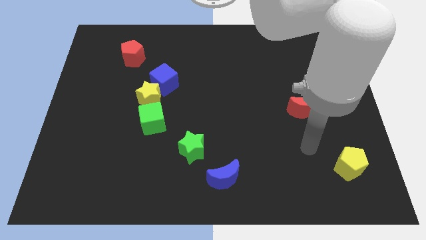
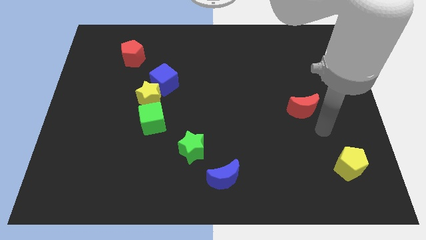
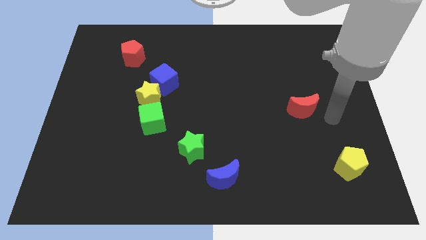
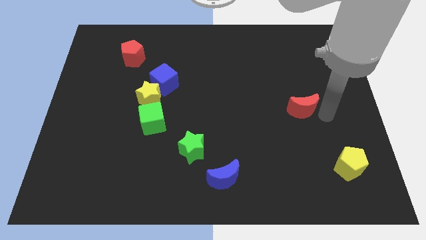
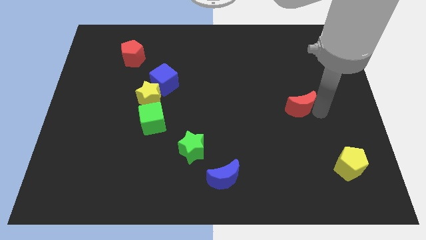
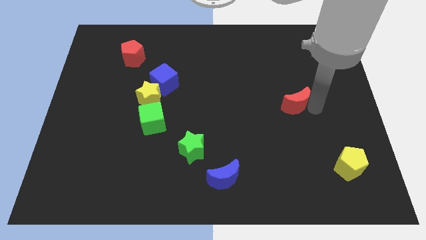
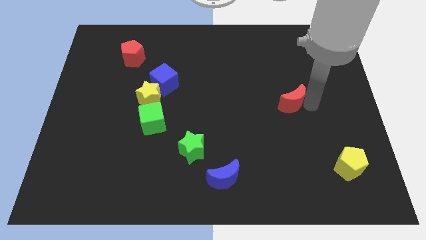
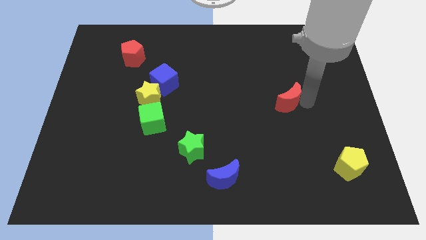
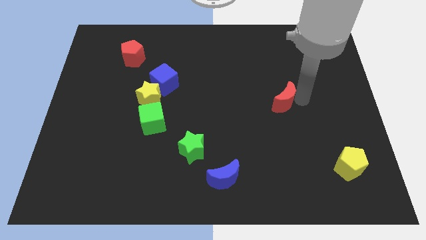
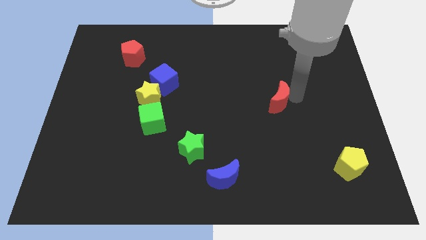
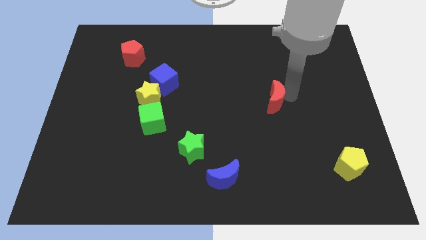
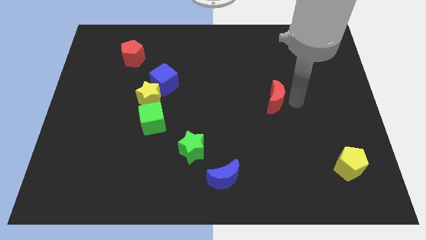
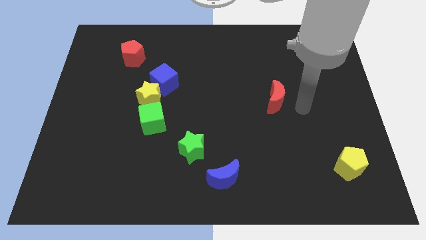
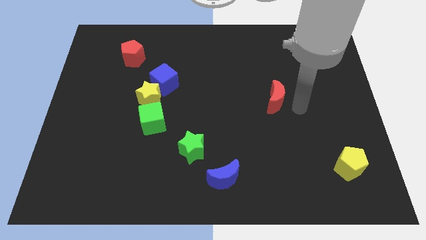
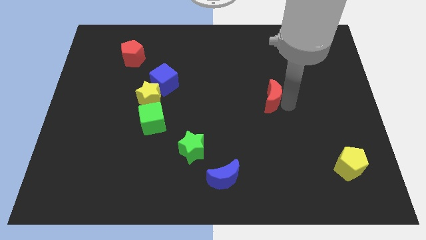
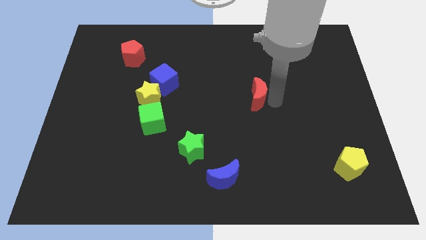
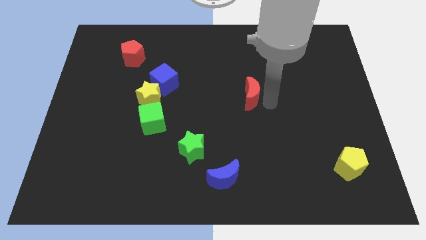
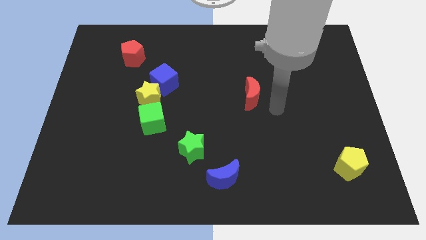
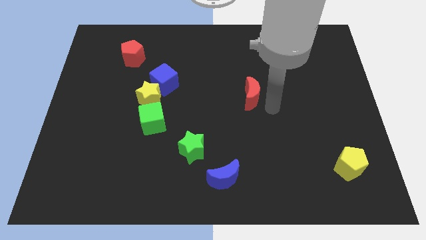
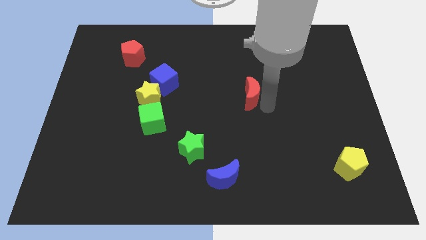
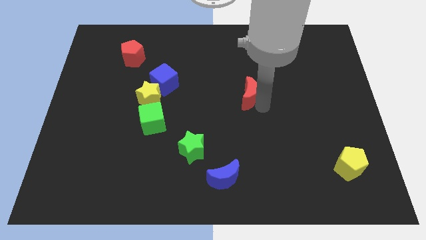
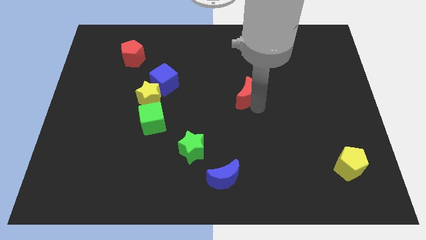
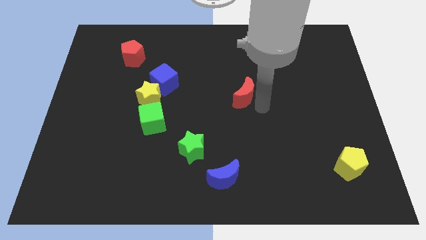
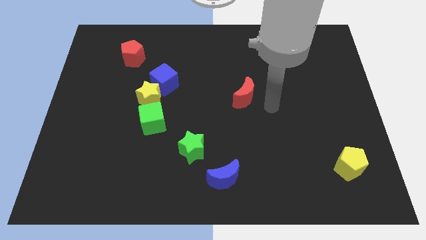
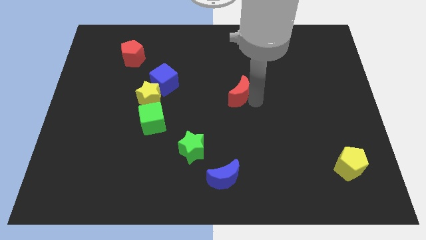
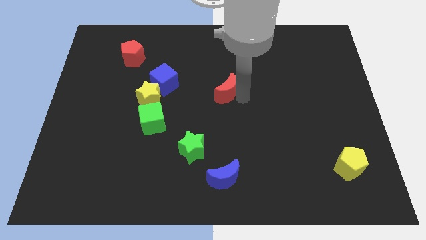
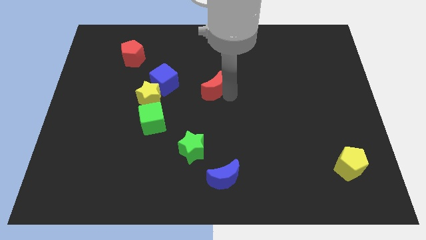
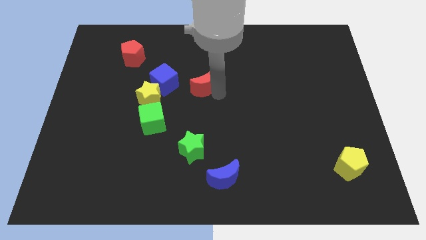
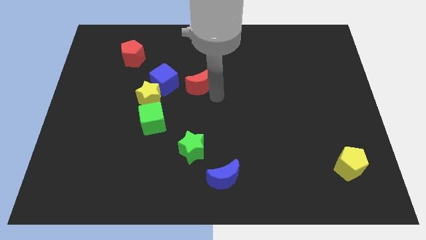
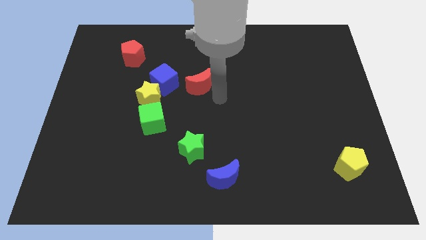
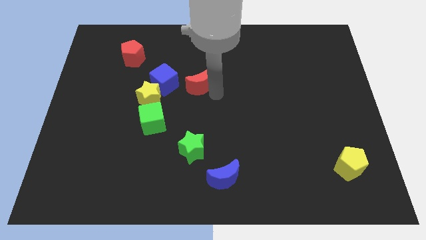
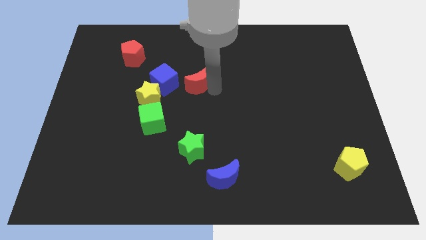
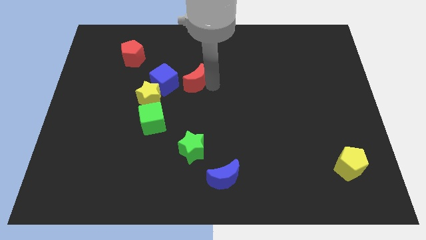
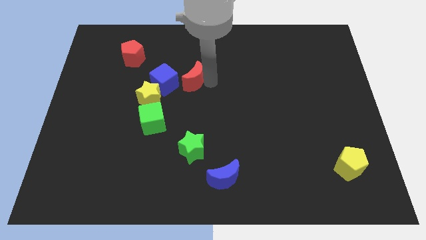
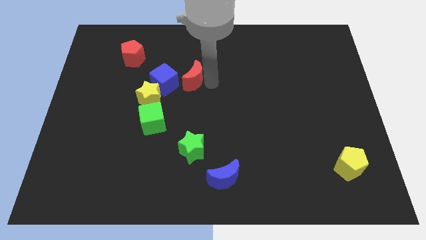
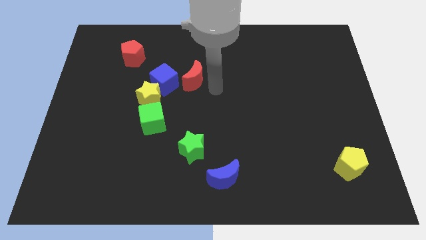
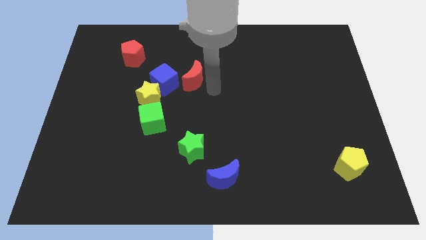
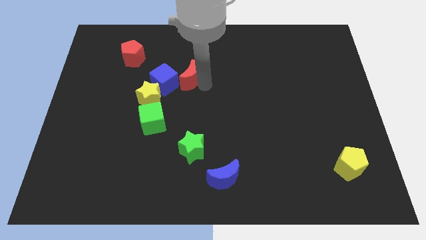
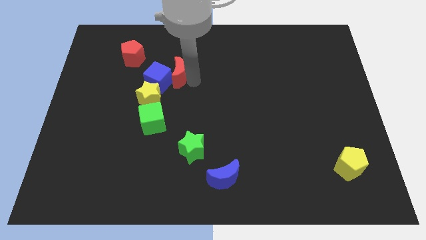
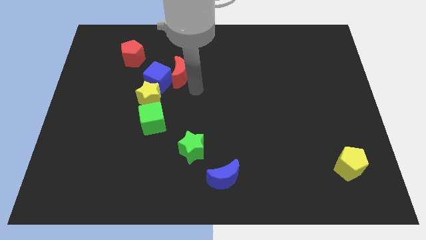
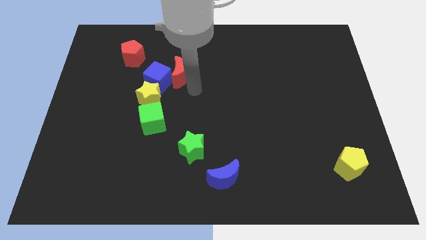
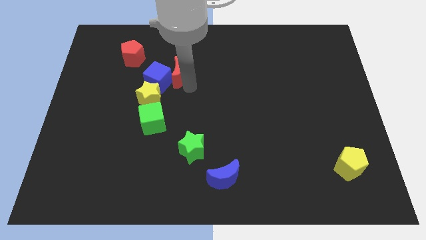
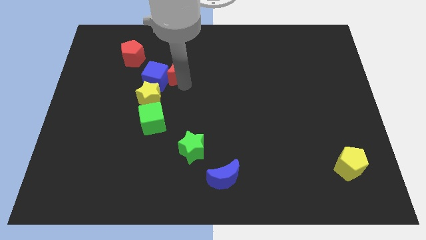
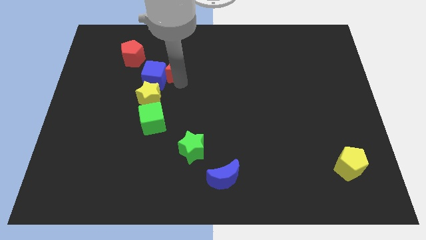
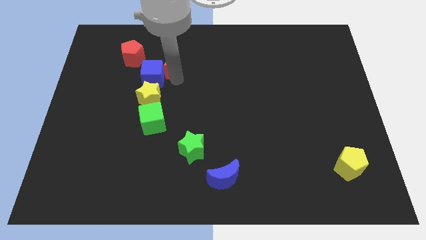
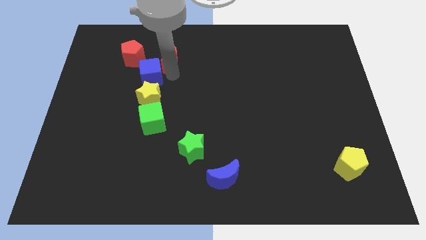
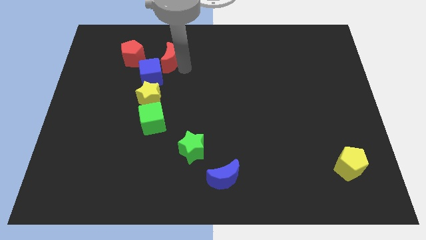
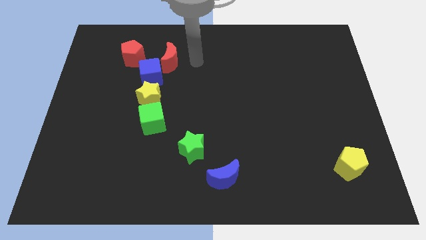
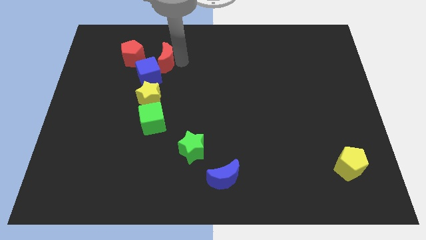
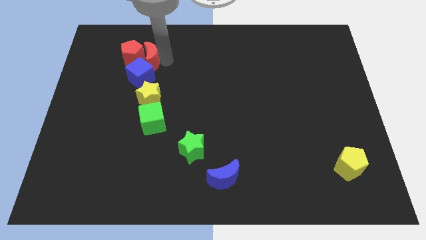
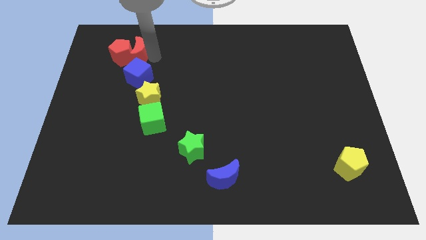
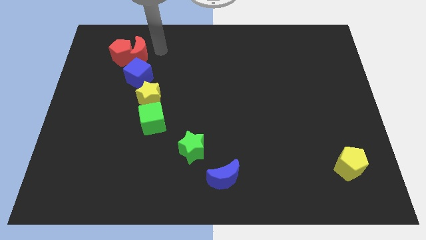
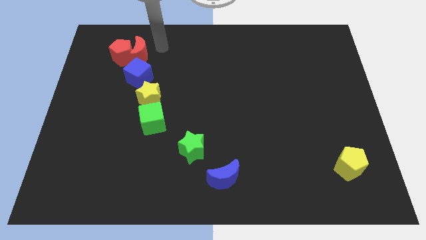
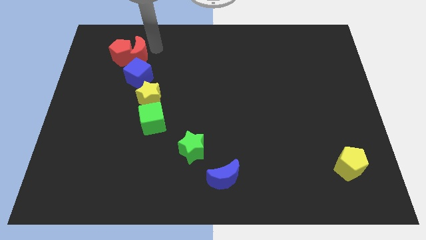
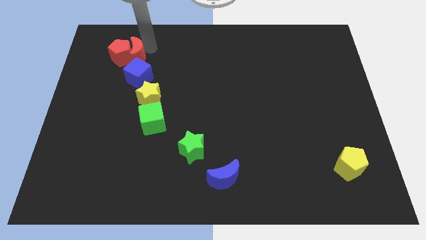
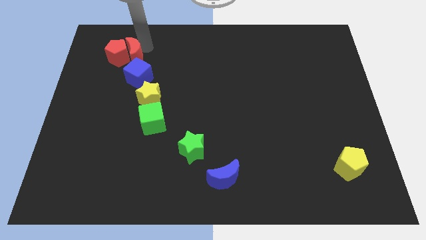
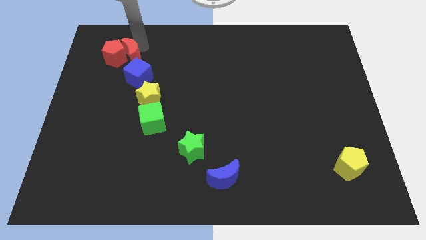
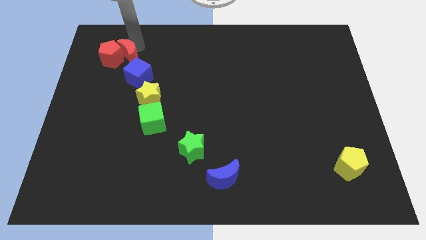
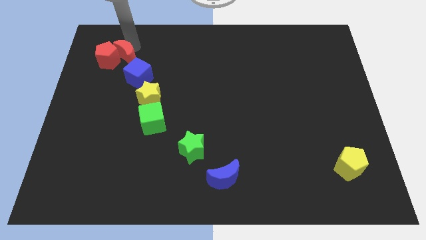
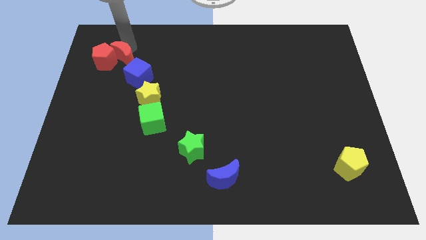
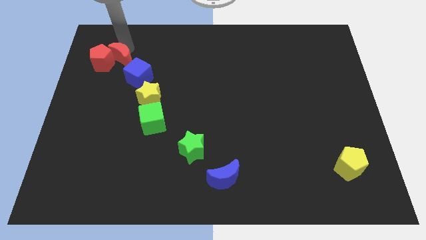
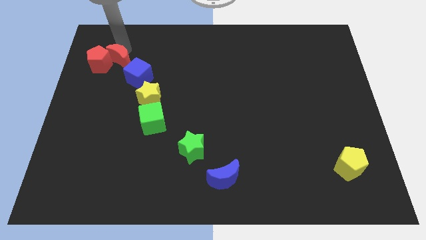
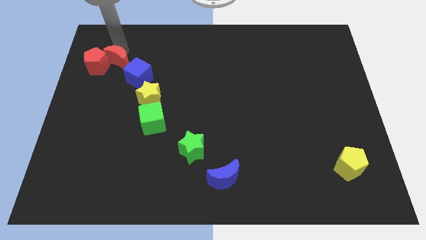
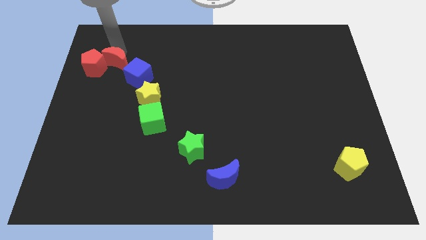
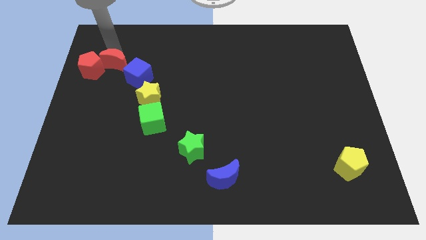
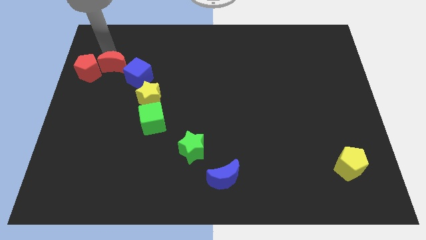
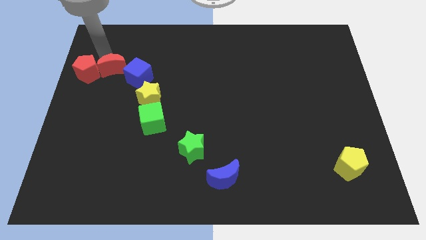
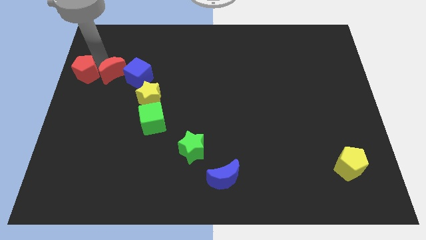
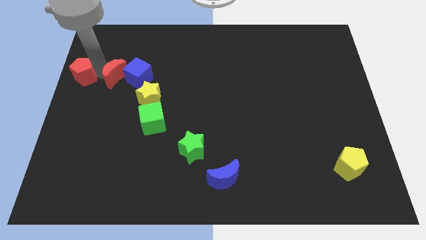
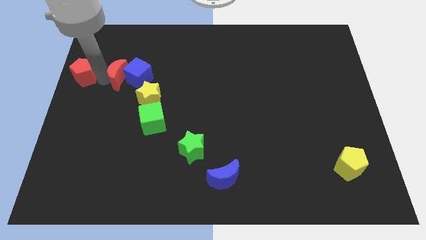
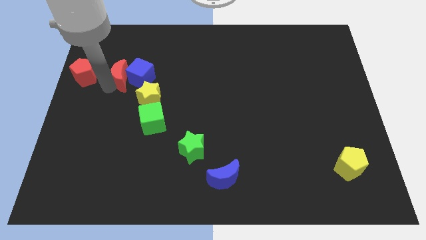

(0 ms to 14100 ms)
move the red moon to the top left side of the blue cube
